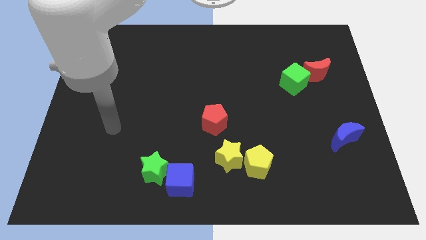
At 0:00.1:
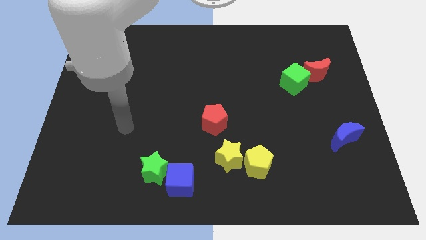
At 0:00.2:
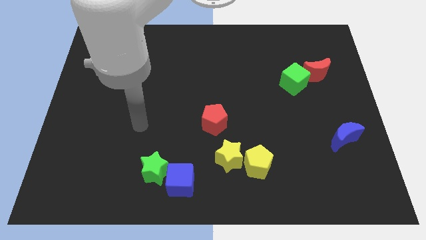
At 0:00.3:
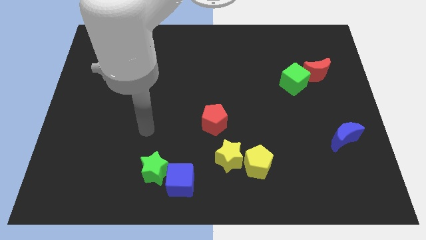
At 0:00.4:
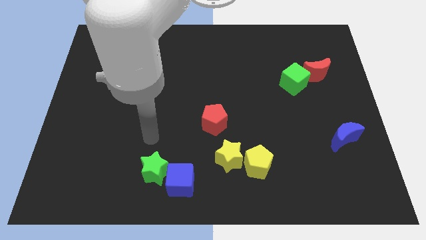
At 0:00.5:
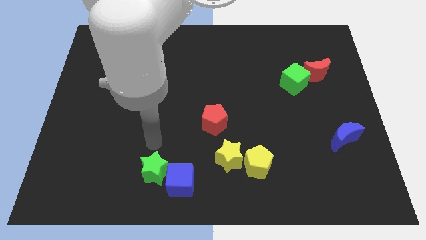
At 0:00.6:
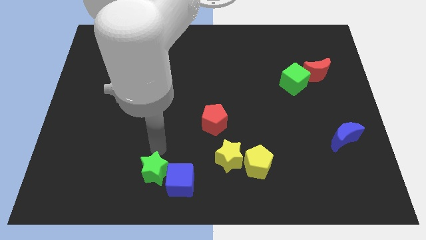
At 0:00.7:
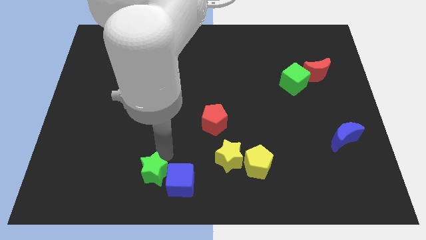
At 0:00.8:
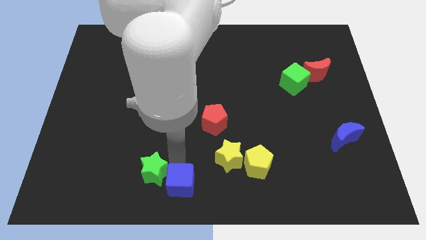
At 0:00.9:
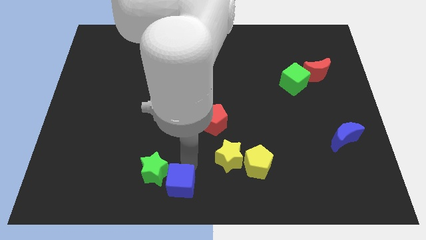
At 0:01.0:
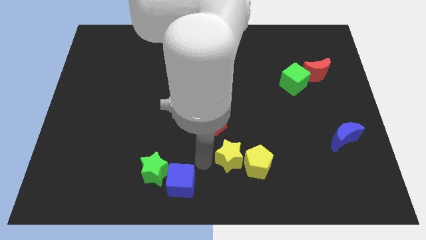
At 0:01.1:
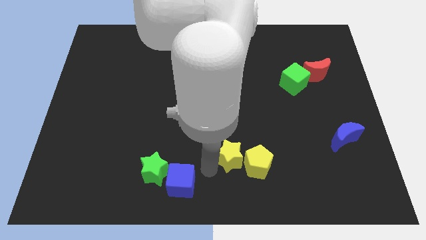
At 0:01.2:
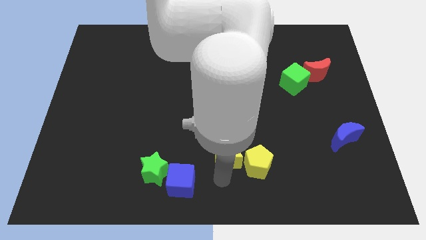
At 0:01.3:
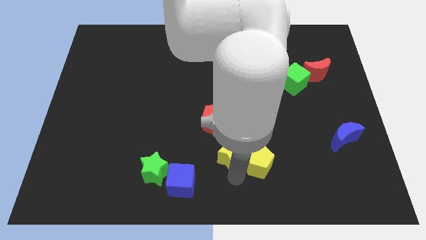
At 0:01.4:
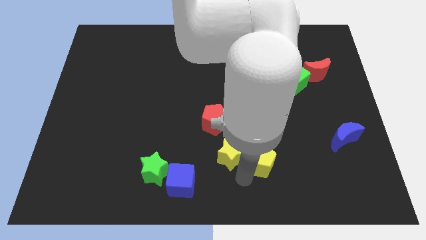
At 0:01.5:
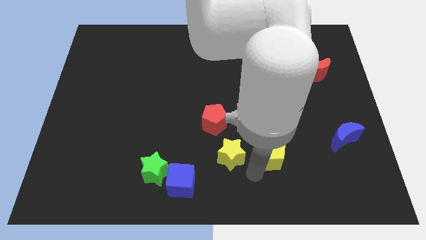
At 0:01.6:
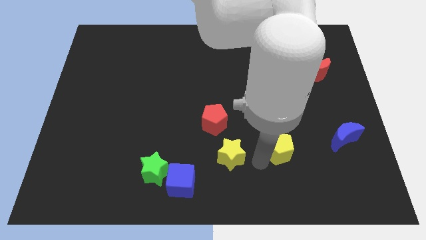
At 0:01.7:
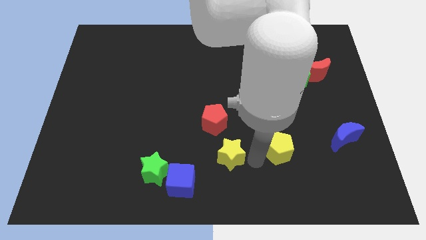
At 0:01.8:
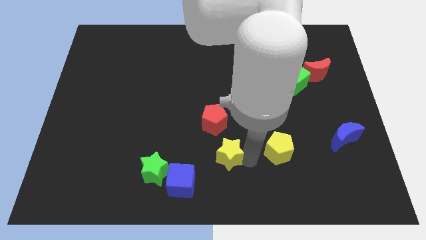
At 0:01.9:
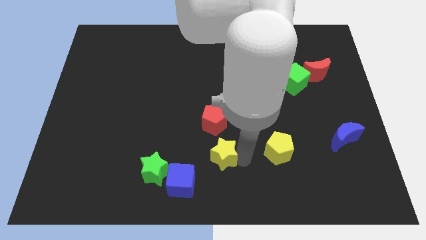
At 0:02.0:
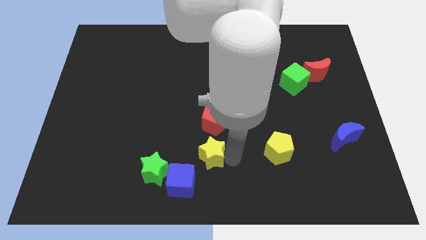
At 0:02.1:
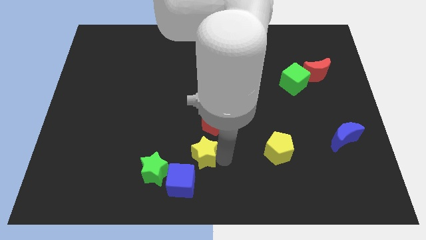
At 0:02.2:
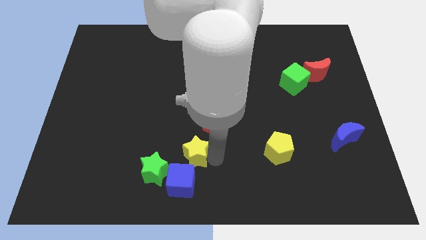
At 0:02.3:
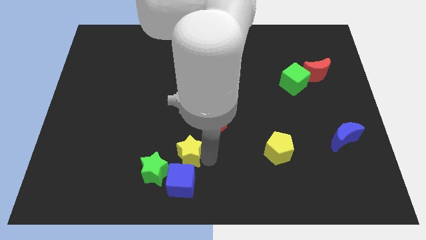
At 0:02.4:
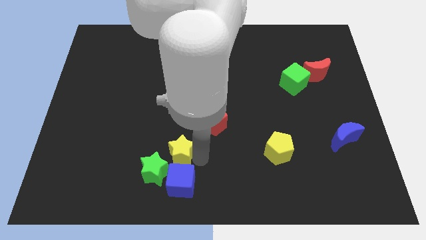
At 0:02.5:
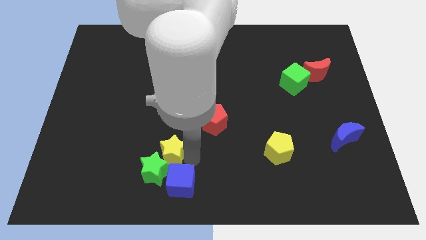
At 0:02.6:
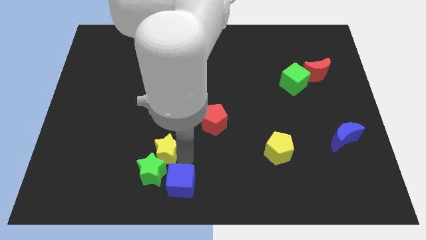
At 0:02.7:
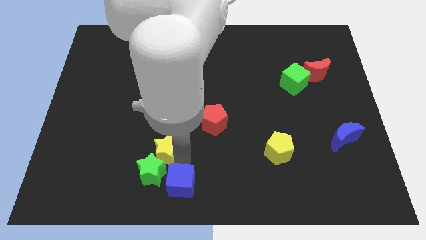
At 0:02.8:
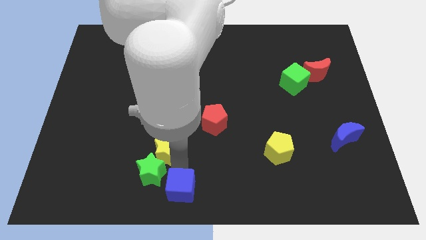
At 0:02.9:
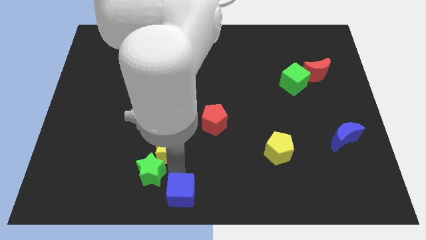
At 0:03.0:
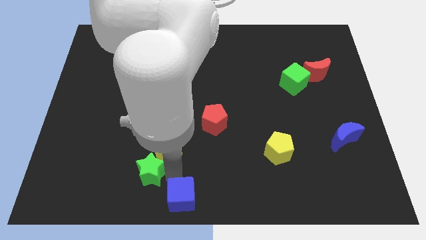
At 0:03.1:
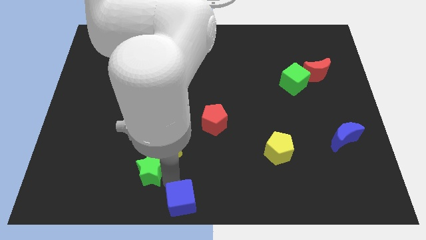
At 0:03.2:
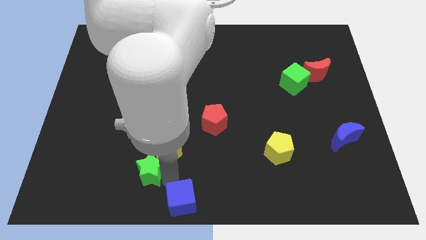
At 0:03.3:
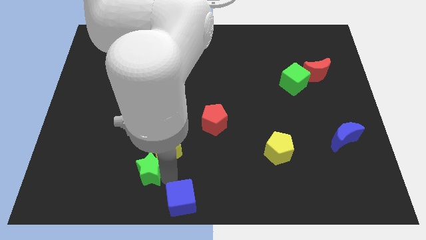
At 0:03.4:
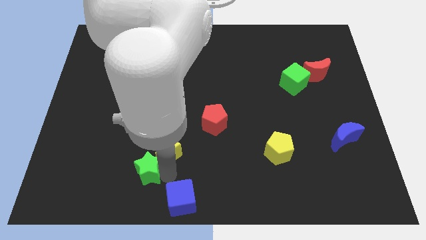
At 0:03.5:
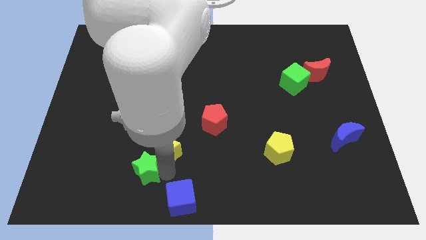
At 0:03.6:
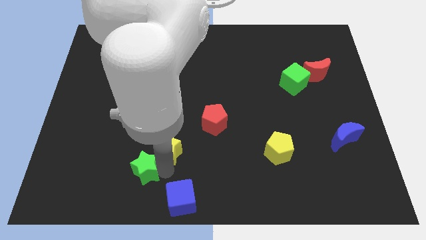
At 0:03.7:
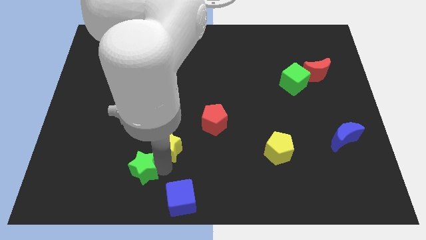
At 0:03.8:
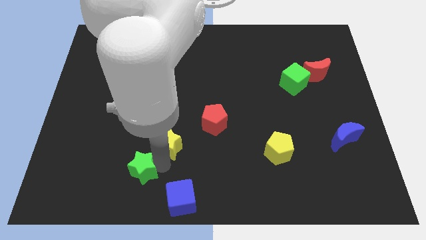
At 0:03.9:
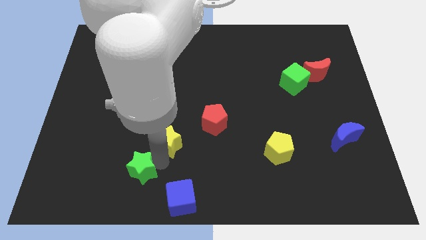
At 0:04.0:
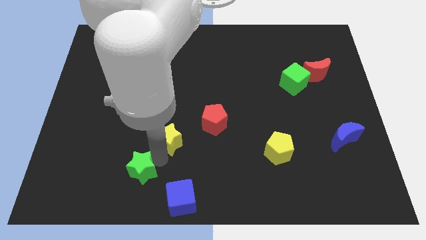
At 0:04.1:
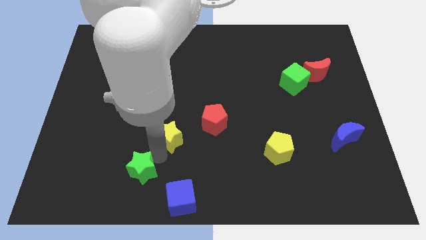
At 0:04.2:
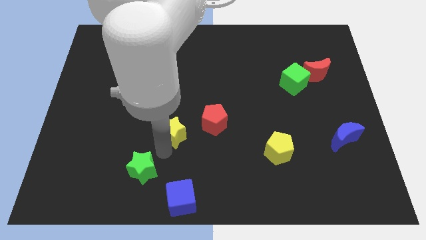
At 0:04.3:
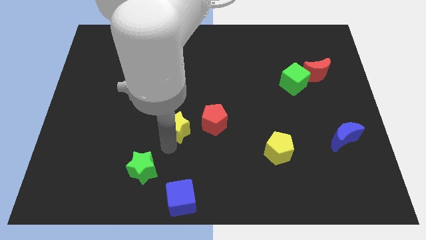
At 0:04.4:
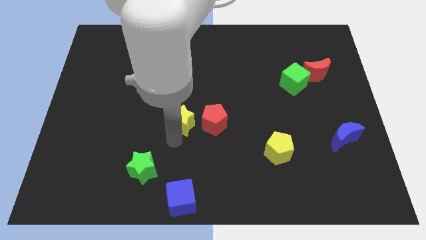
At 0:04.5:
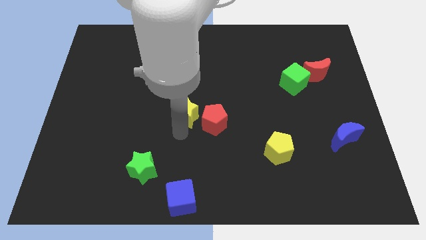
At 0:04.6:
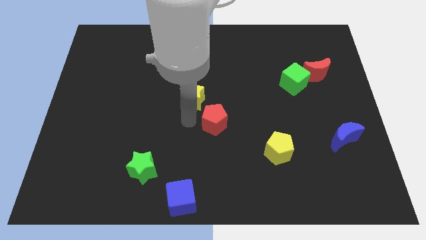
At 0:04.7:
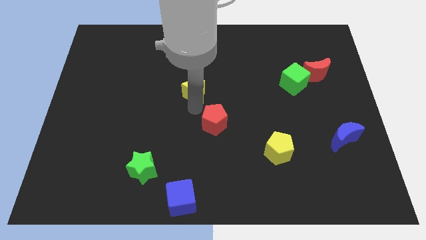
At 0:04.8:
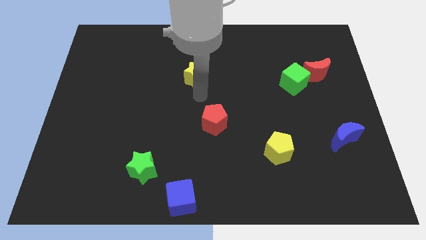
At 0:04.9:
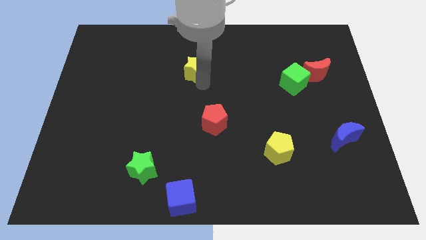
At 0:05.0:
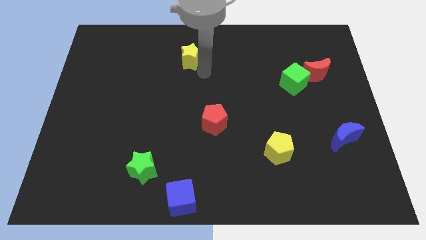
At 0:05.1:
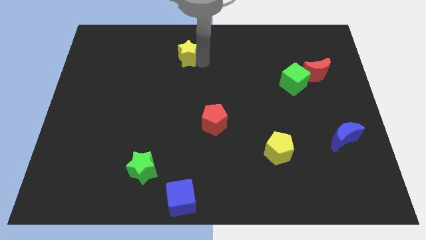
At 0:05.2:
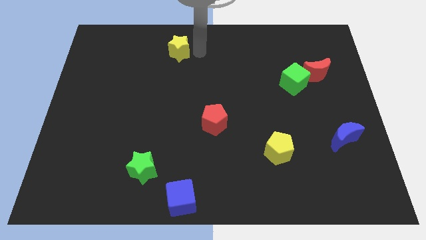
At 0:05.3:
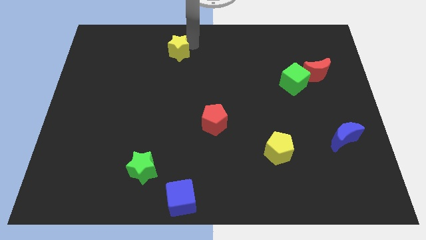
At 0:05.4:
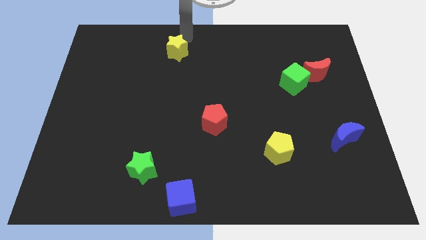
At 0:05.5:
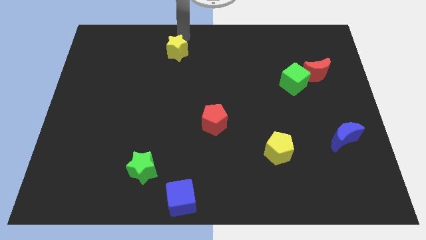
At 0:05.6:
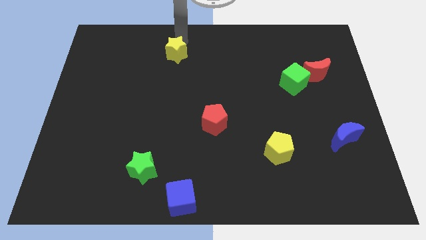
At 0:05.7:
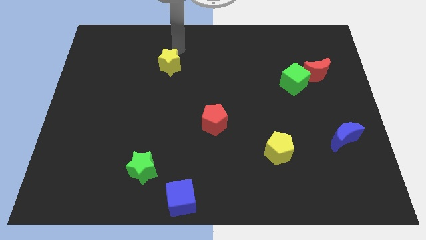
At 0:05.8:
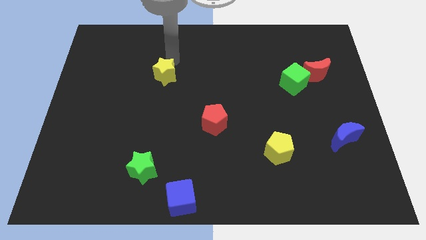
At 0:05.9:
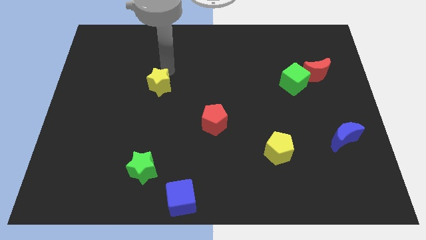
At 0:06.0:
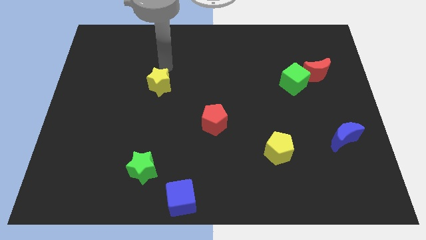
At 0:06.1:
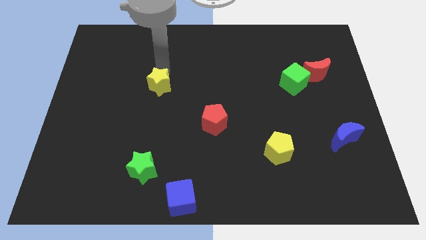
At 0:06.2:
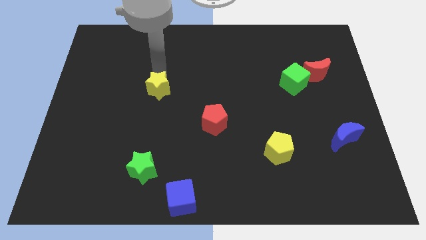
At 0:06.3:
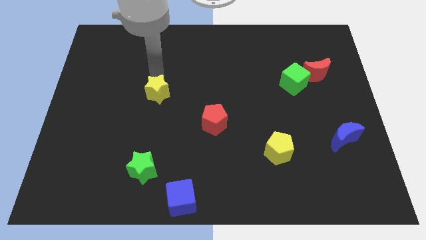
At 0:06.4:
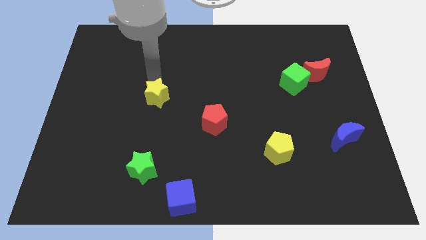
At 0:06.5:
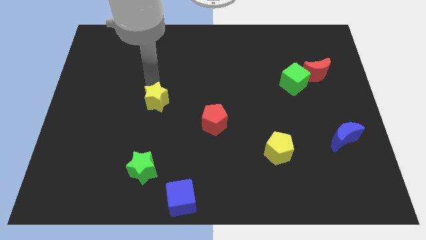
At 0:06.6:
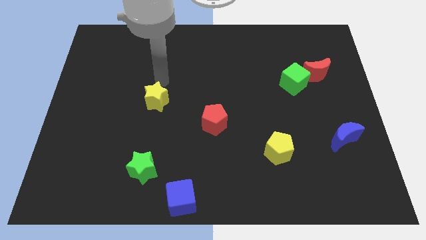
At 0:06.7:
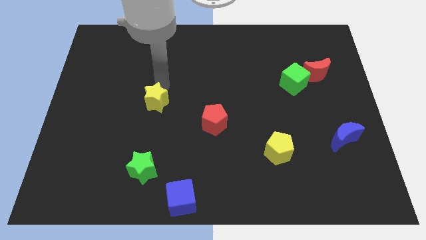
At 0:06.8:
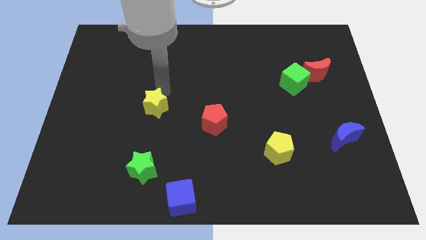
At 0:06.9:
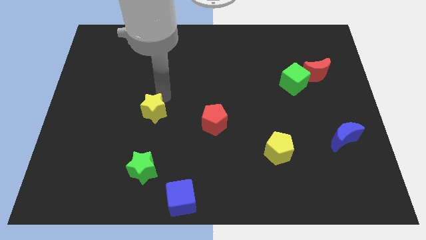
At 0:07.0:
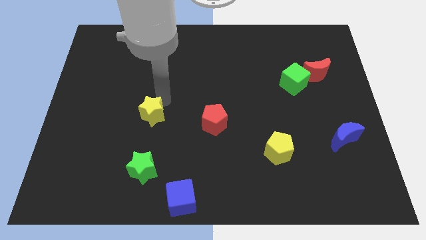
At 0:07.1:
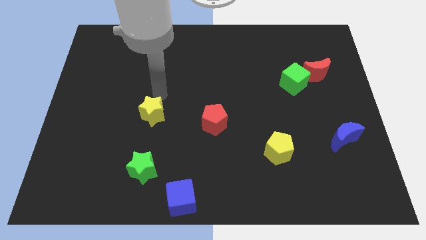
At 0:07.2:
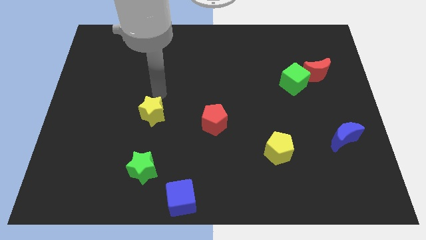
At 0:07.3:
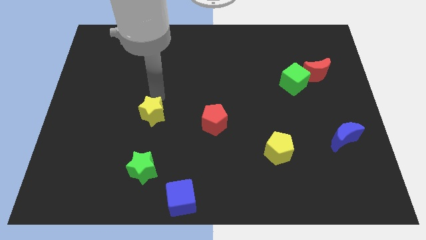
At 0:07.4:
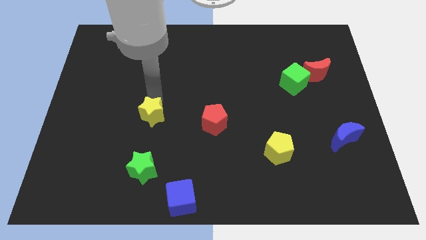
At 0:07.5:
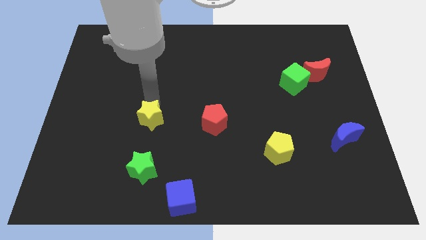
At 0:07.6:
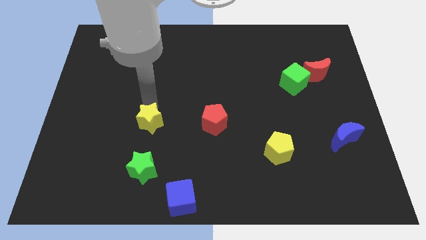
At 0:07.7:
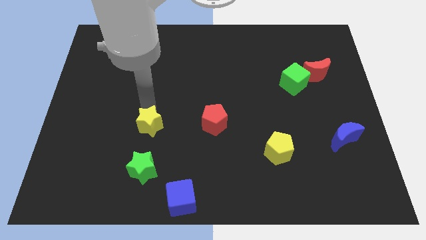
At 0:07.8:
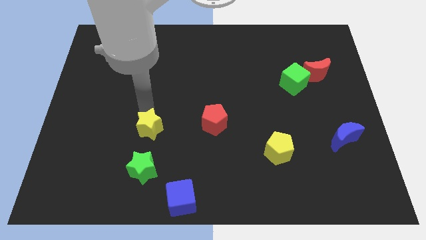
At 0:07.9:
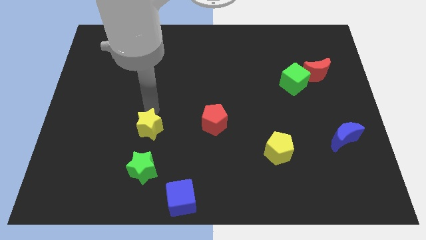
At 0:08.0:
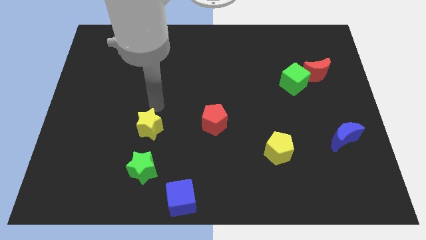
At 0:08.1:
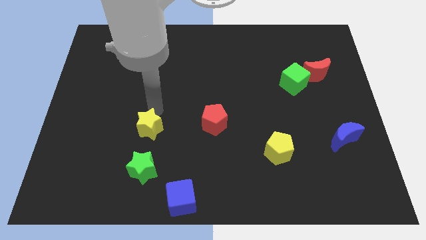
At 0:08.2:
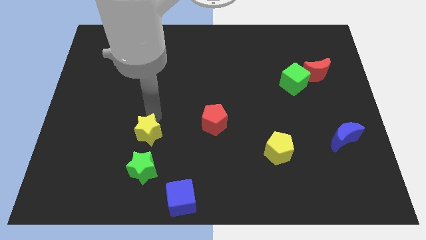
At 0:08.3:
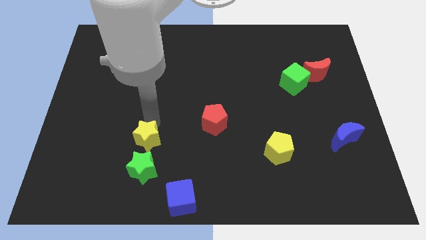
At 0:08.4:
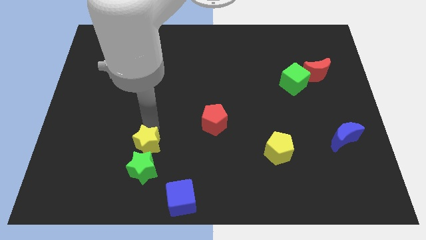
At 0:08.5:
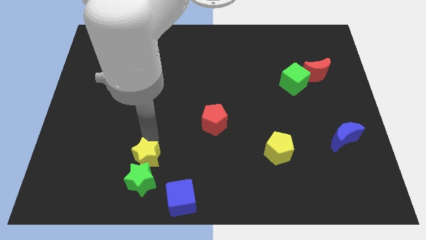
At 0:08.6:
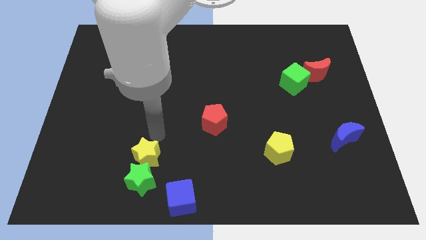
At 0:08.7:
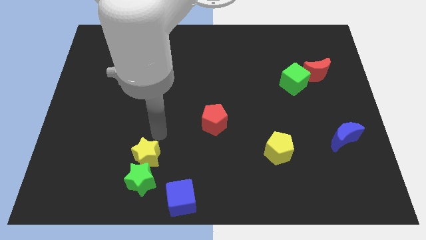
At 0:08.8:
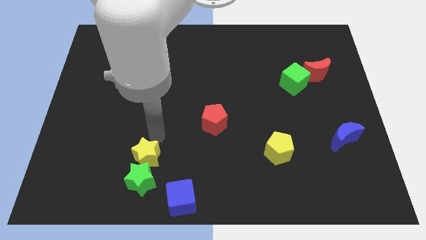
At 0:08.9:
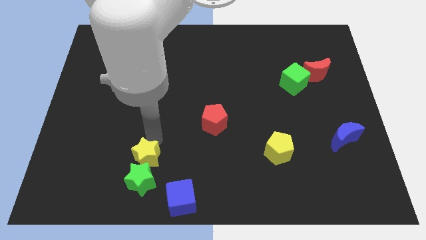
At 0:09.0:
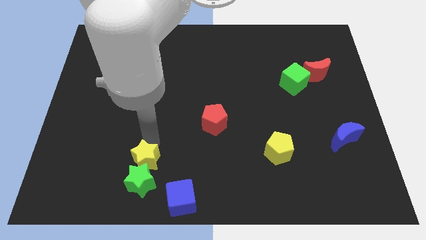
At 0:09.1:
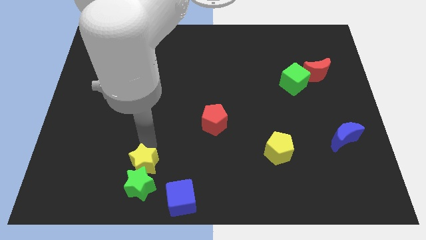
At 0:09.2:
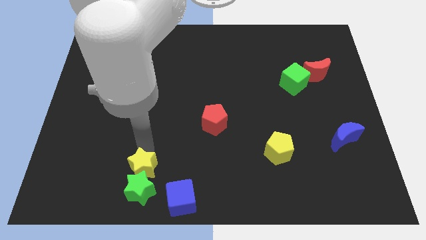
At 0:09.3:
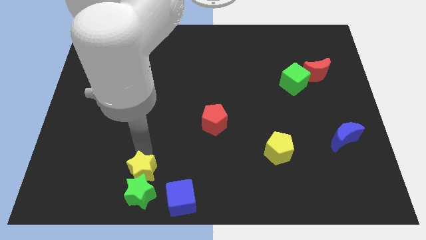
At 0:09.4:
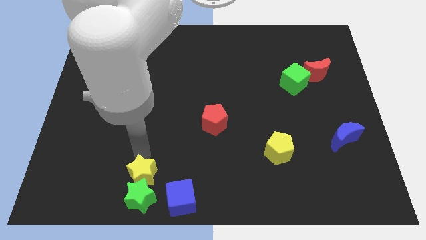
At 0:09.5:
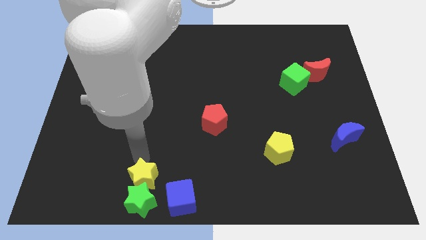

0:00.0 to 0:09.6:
slide the yellow star left of the blue cube
